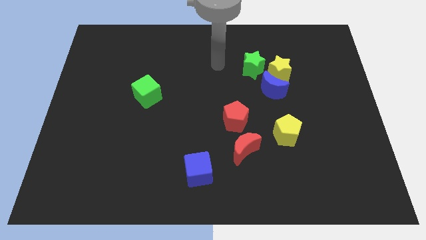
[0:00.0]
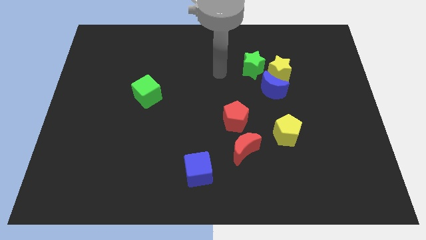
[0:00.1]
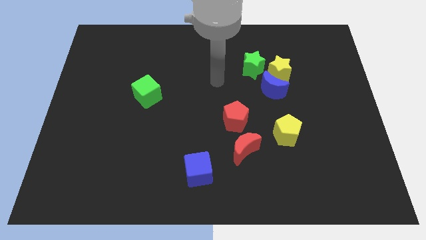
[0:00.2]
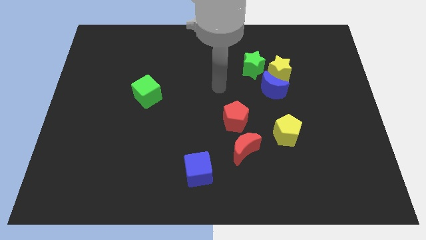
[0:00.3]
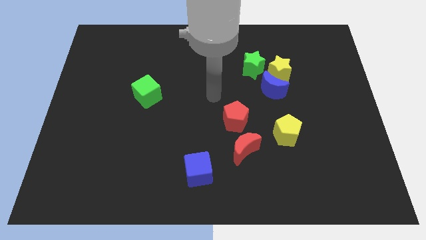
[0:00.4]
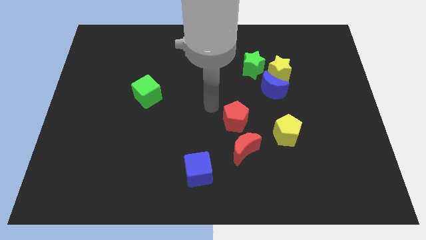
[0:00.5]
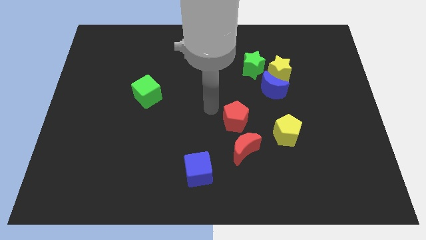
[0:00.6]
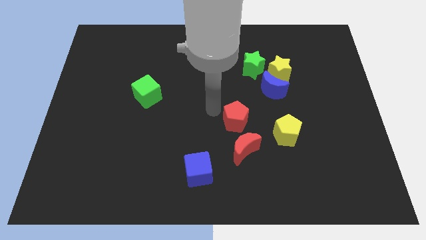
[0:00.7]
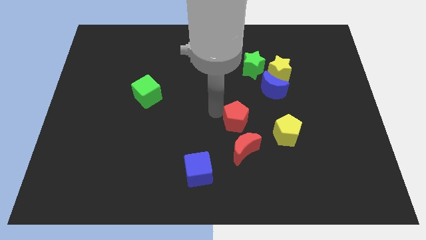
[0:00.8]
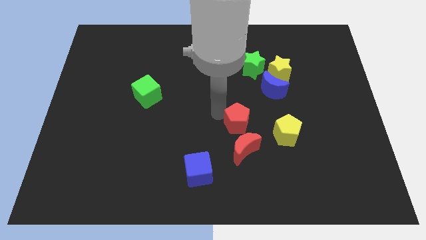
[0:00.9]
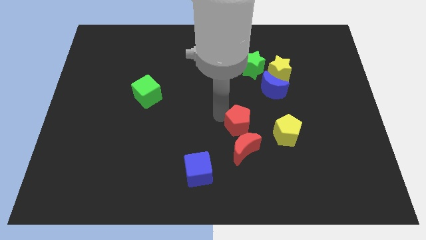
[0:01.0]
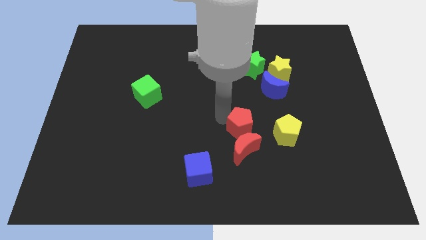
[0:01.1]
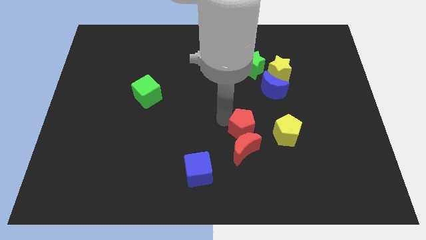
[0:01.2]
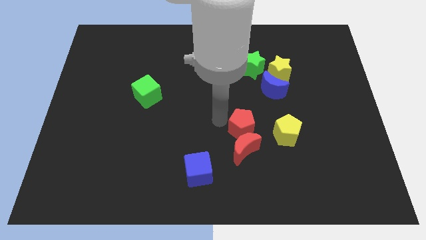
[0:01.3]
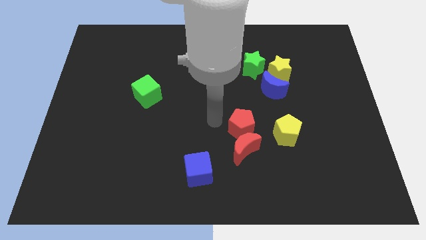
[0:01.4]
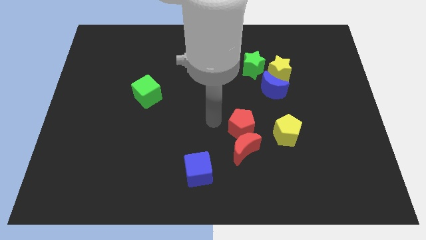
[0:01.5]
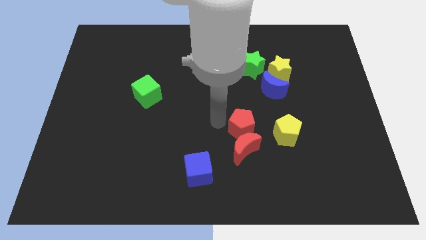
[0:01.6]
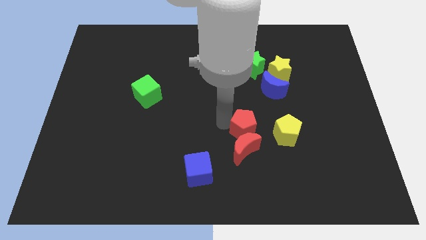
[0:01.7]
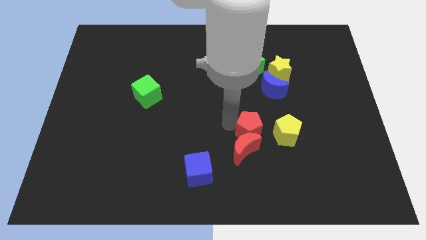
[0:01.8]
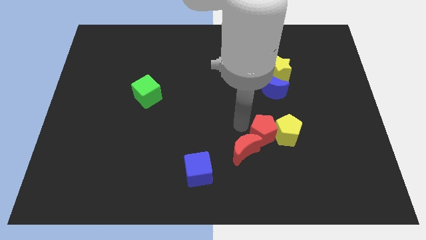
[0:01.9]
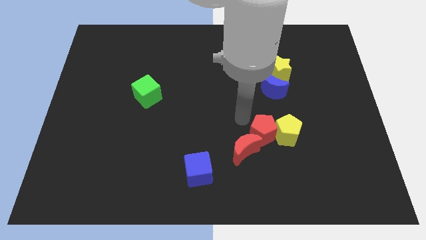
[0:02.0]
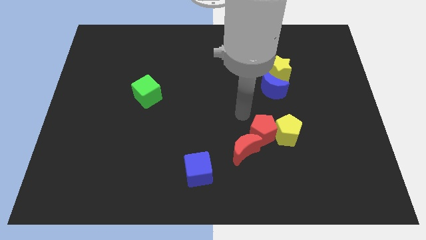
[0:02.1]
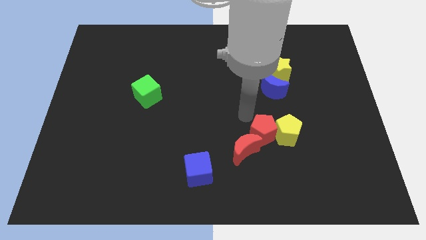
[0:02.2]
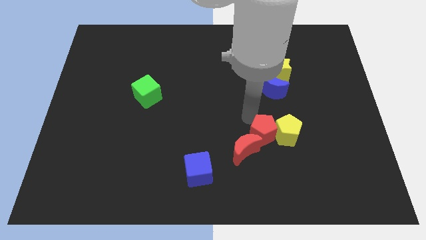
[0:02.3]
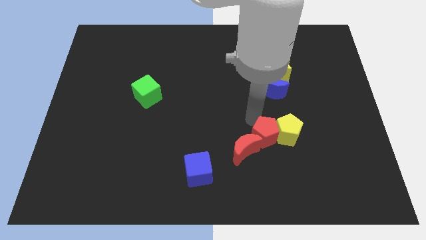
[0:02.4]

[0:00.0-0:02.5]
push the red pentagon diagonally downwards and to the right a little

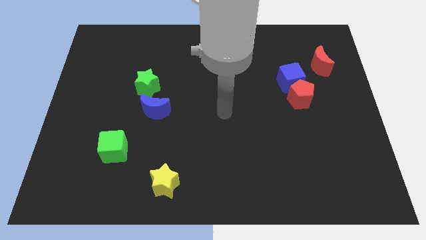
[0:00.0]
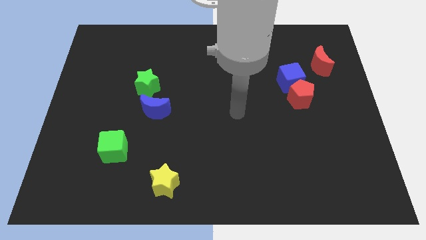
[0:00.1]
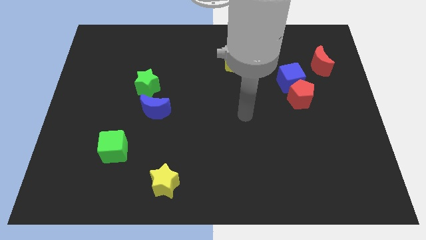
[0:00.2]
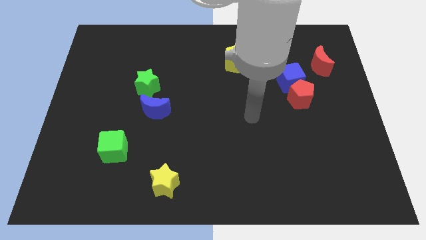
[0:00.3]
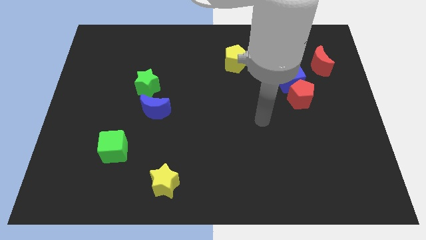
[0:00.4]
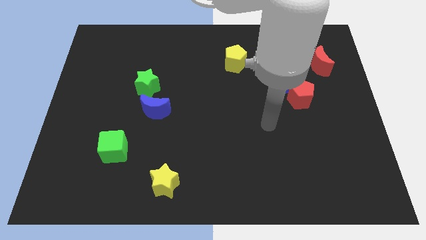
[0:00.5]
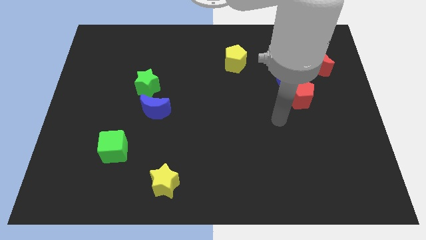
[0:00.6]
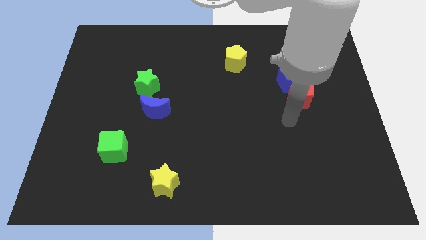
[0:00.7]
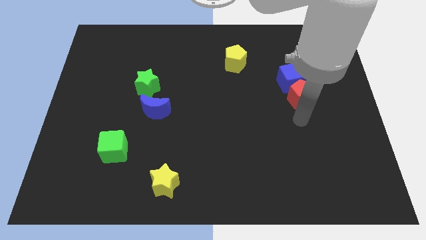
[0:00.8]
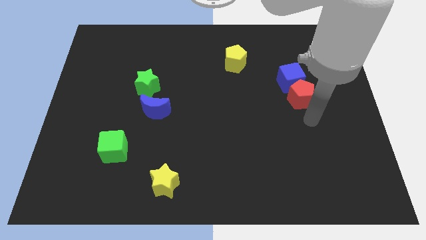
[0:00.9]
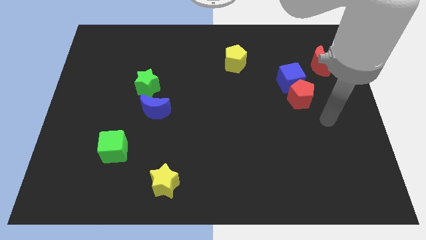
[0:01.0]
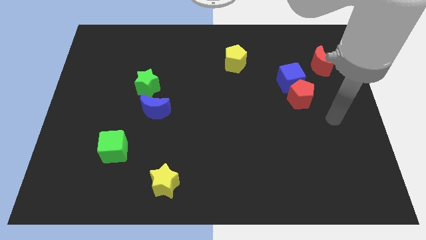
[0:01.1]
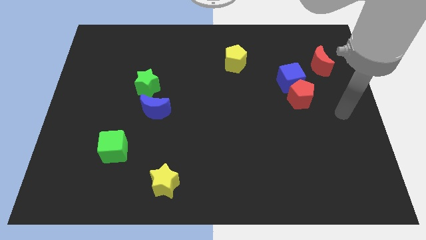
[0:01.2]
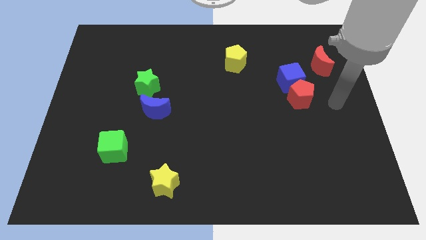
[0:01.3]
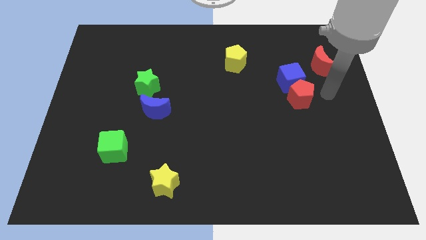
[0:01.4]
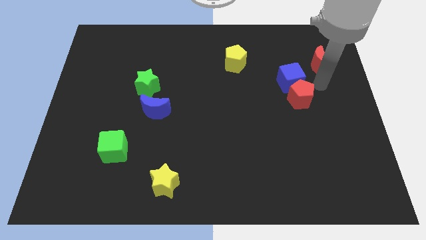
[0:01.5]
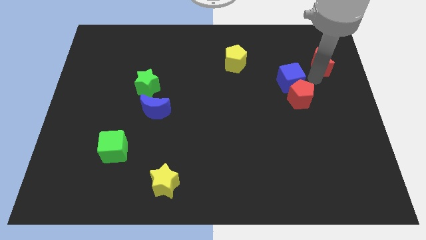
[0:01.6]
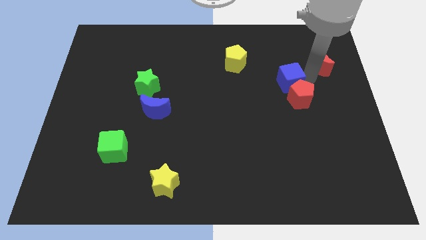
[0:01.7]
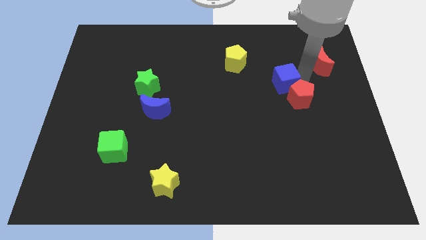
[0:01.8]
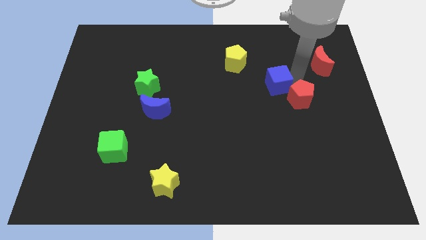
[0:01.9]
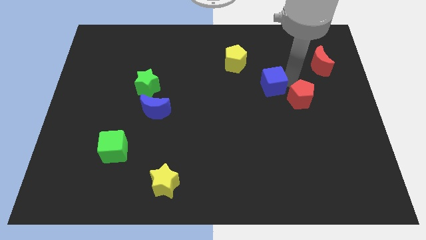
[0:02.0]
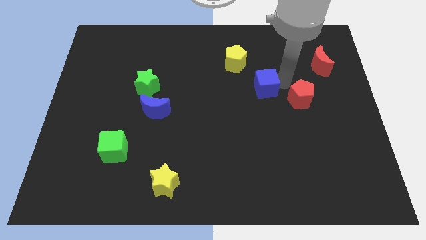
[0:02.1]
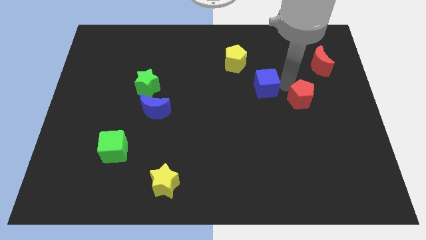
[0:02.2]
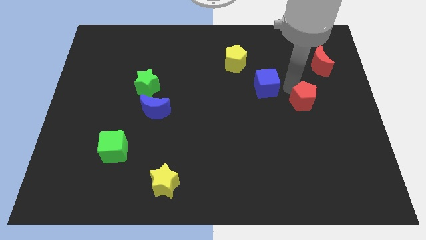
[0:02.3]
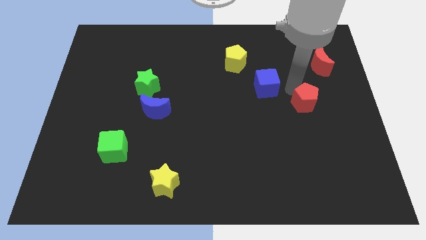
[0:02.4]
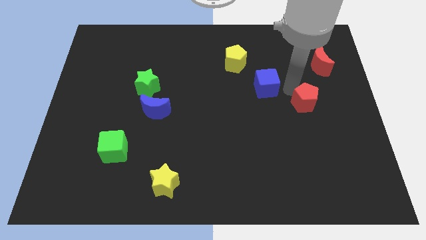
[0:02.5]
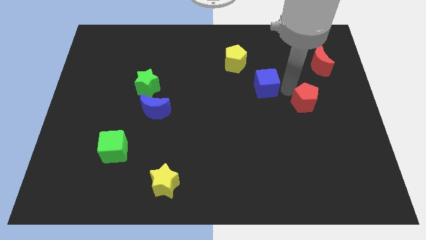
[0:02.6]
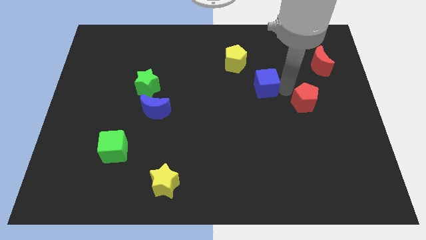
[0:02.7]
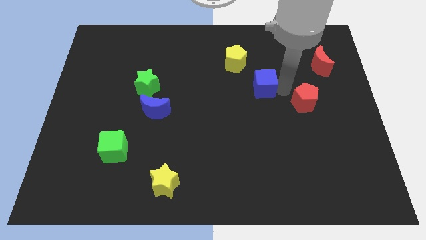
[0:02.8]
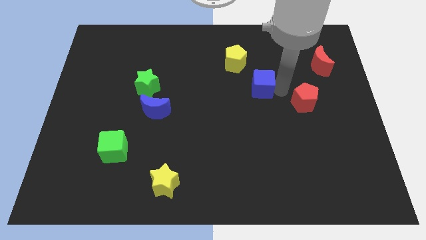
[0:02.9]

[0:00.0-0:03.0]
slide the blue cube somewhat to the left

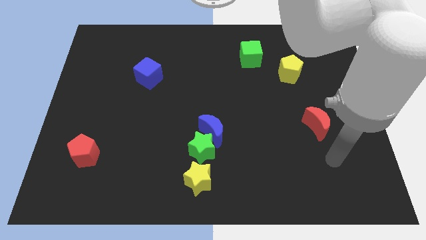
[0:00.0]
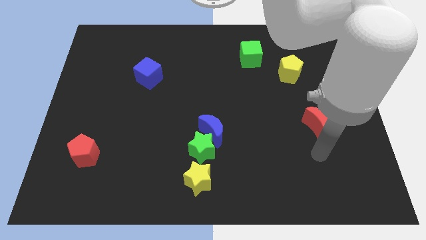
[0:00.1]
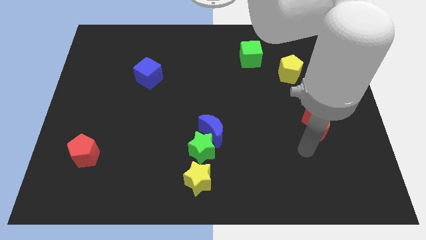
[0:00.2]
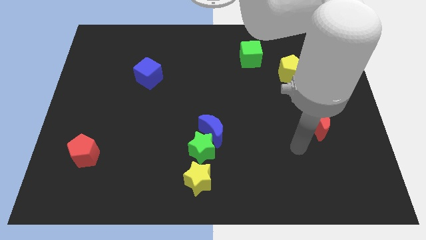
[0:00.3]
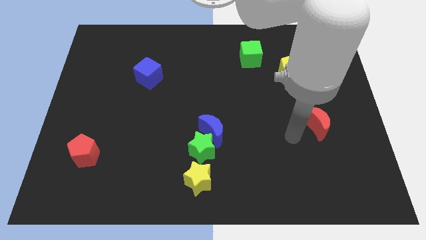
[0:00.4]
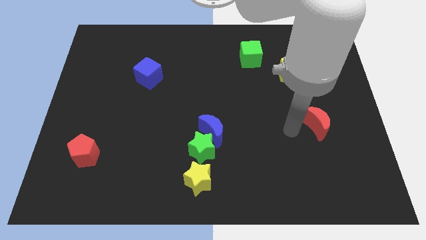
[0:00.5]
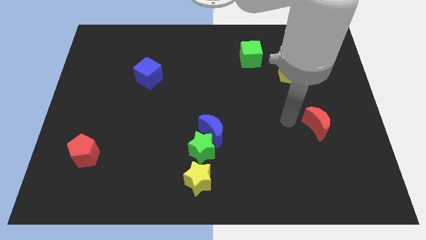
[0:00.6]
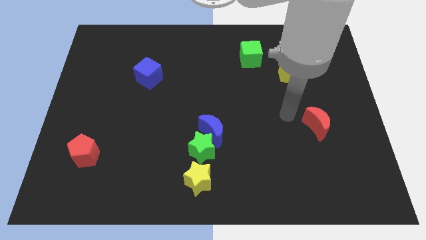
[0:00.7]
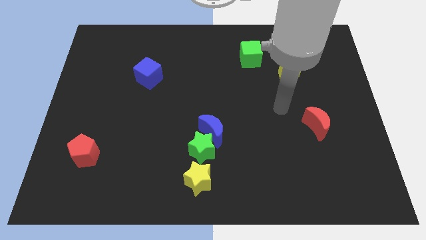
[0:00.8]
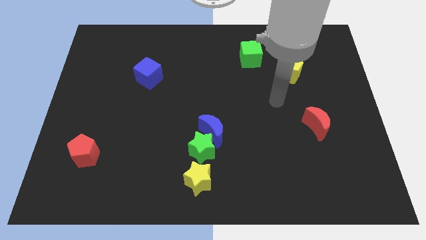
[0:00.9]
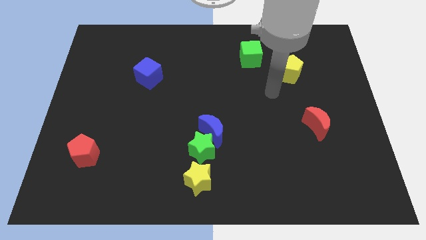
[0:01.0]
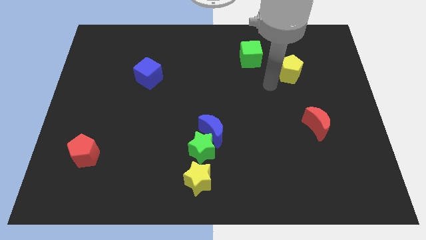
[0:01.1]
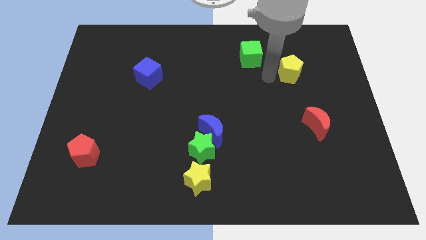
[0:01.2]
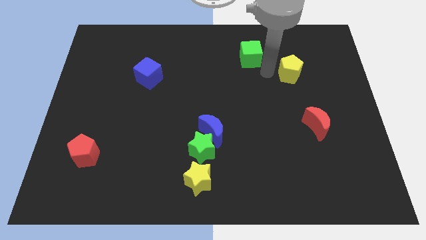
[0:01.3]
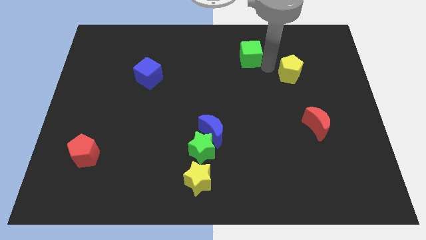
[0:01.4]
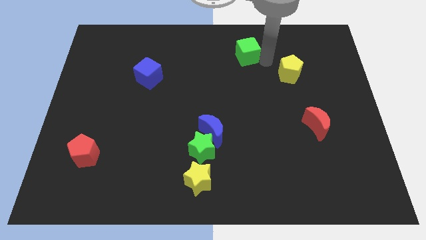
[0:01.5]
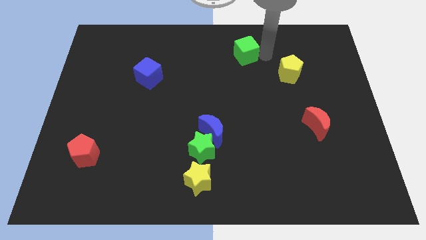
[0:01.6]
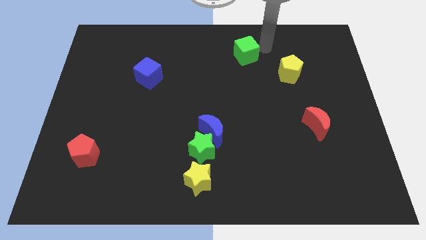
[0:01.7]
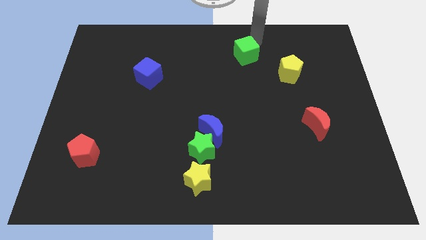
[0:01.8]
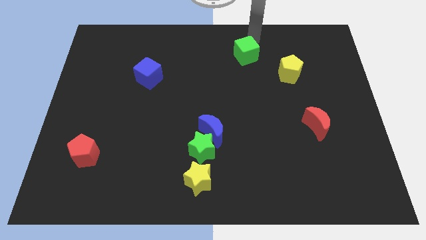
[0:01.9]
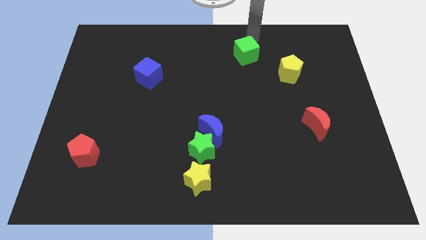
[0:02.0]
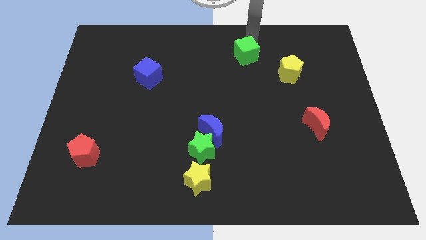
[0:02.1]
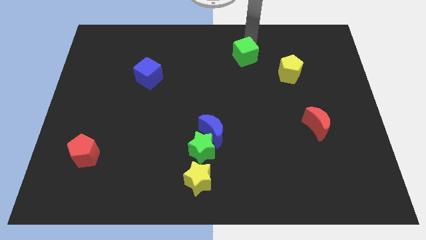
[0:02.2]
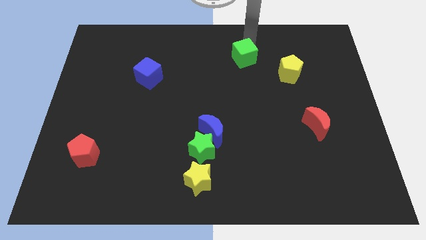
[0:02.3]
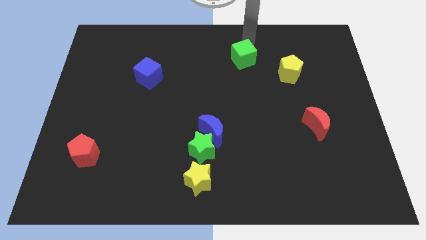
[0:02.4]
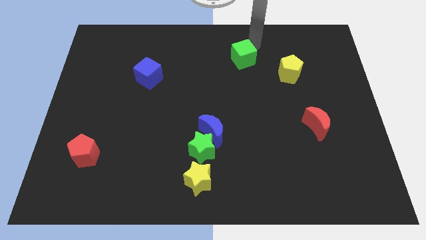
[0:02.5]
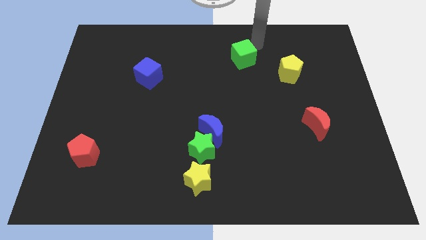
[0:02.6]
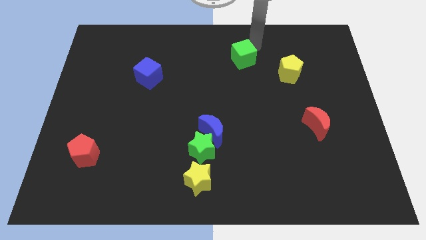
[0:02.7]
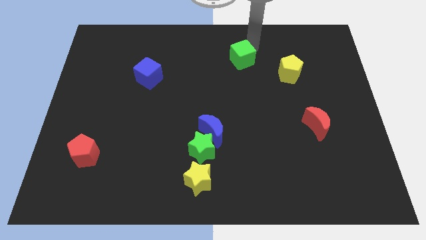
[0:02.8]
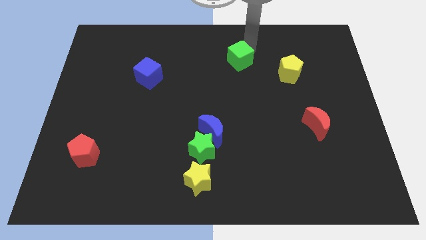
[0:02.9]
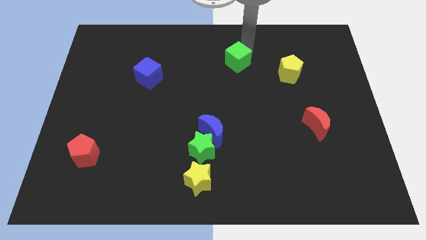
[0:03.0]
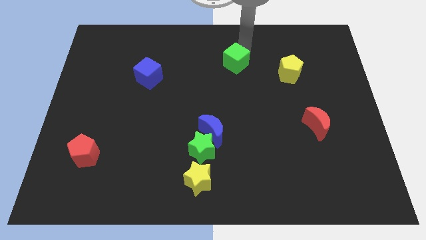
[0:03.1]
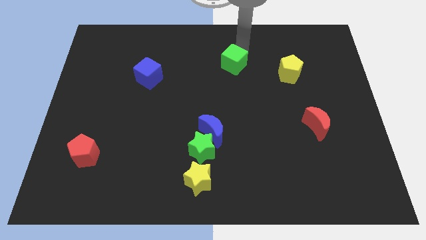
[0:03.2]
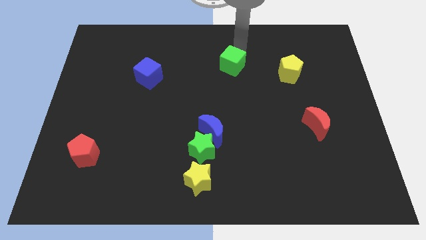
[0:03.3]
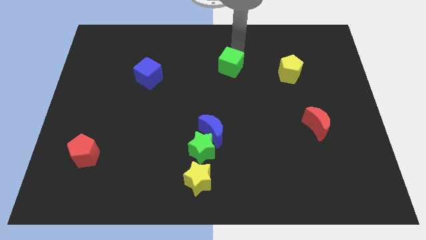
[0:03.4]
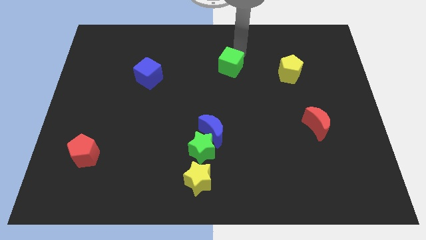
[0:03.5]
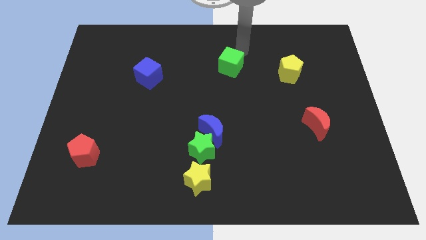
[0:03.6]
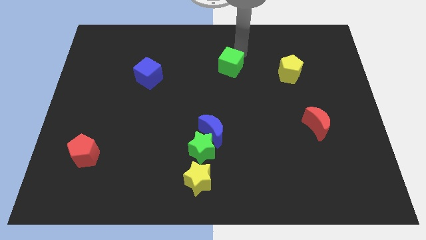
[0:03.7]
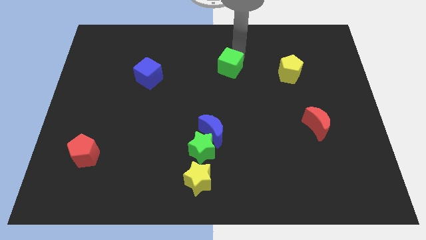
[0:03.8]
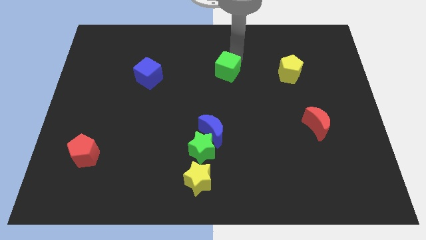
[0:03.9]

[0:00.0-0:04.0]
slightly move the green cube downwards and to the left diagonally
